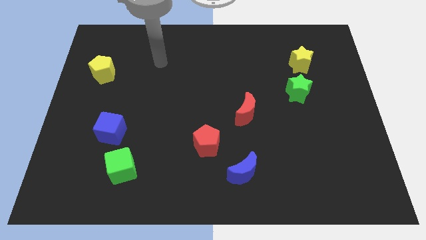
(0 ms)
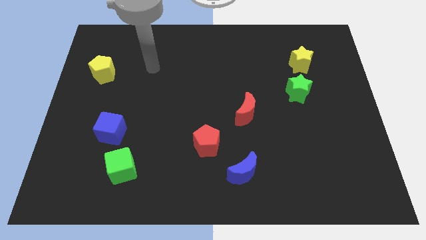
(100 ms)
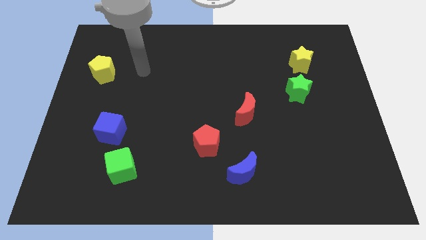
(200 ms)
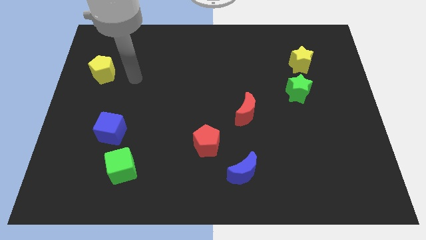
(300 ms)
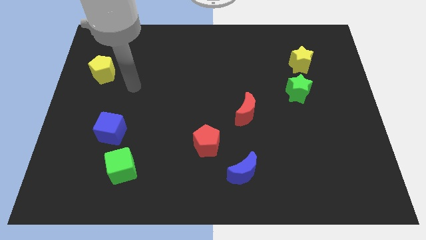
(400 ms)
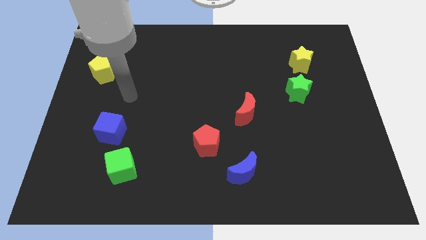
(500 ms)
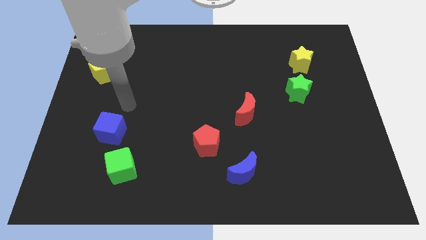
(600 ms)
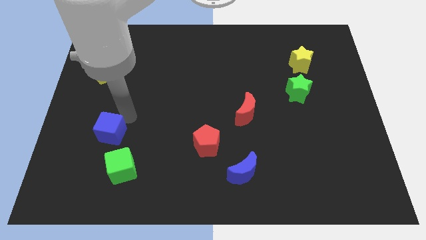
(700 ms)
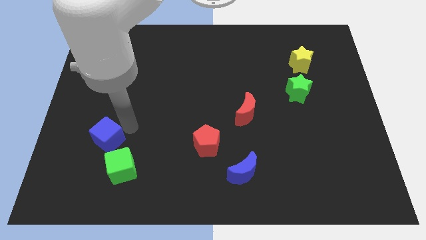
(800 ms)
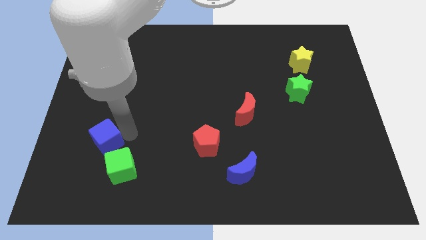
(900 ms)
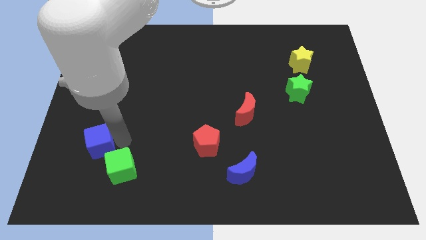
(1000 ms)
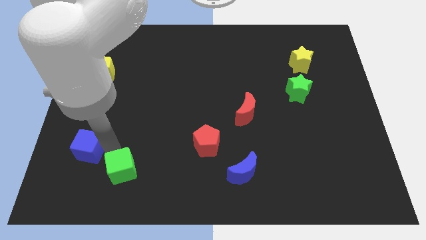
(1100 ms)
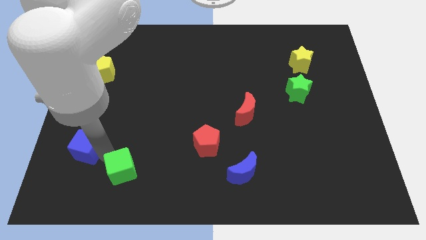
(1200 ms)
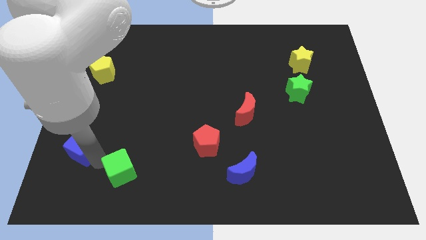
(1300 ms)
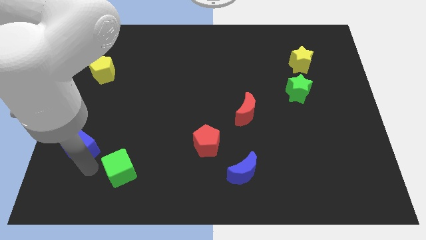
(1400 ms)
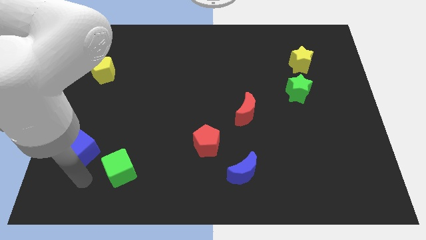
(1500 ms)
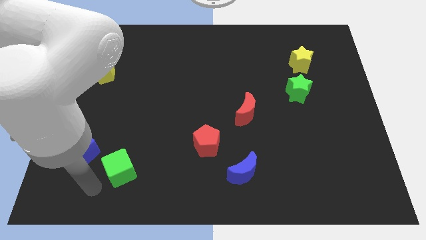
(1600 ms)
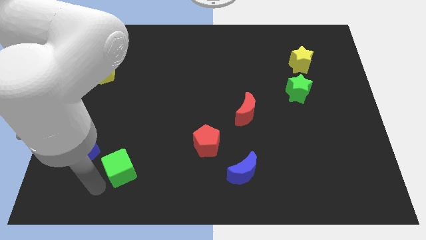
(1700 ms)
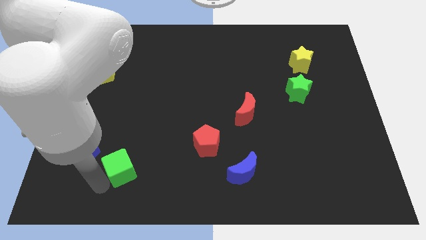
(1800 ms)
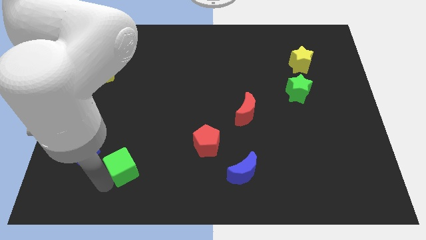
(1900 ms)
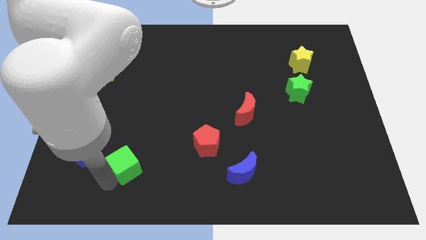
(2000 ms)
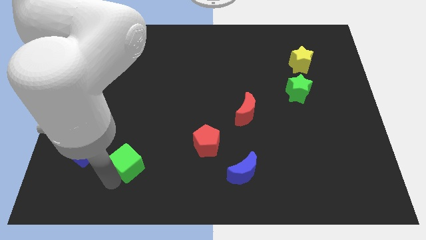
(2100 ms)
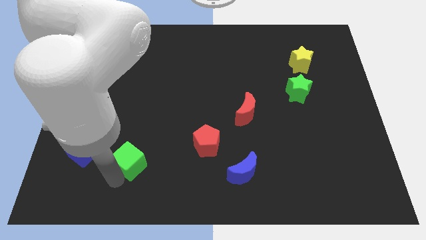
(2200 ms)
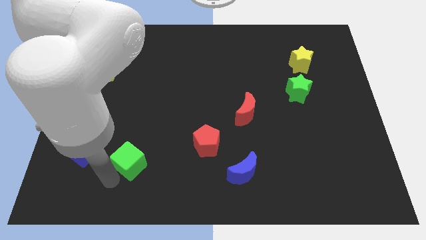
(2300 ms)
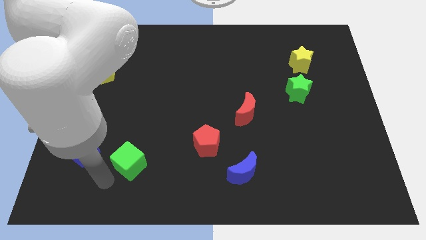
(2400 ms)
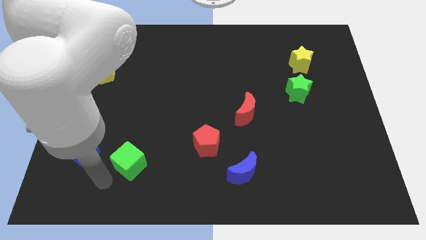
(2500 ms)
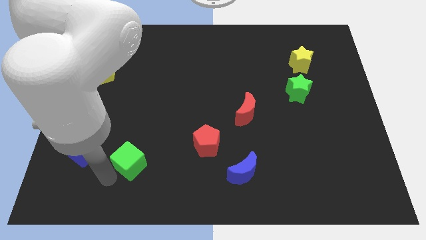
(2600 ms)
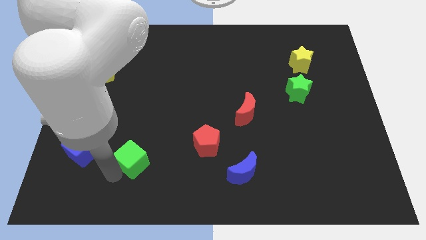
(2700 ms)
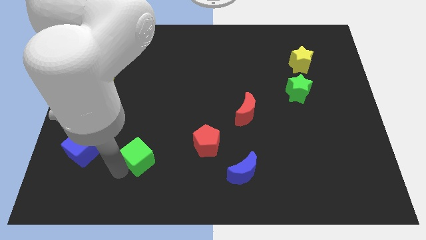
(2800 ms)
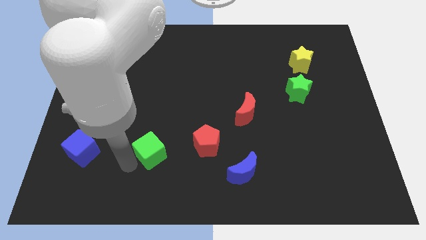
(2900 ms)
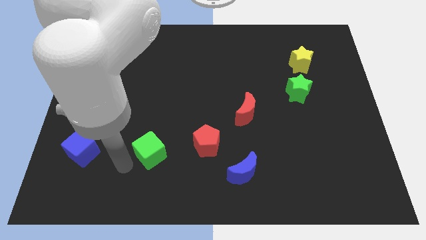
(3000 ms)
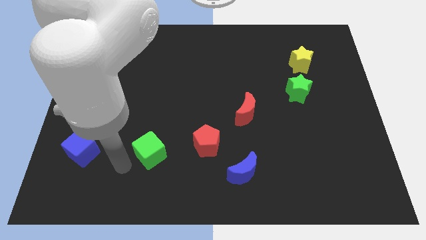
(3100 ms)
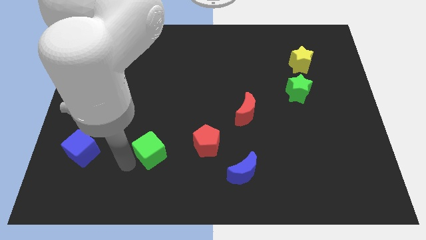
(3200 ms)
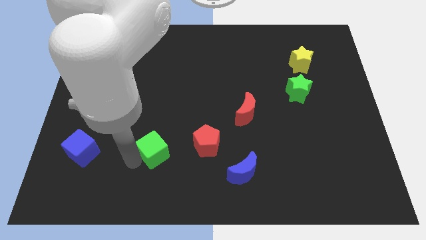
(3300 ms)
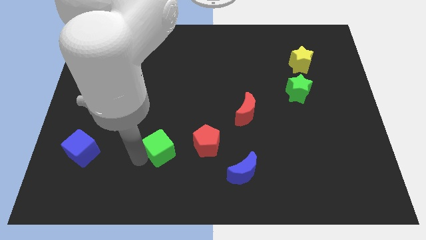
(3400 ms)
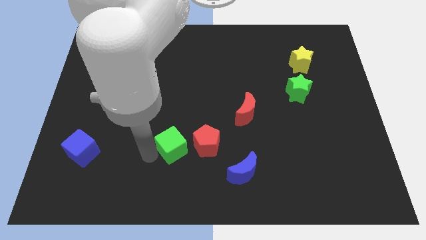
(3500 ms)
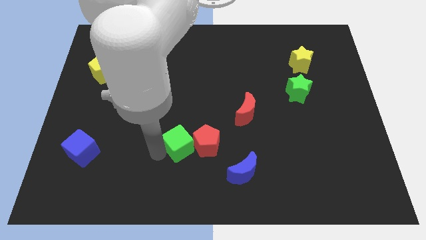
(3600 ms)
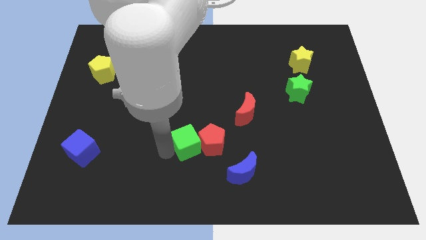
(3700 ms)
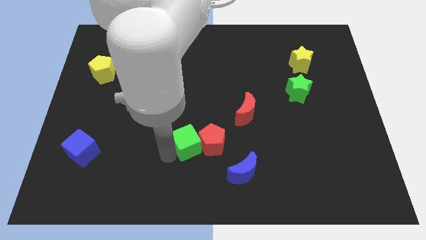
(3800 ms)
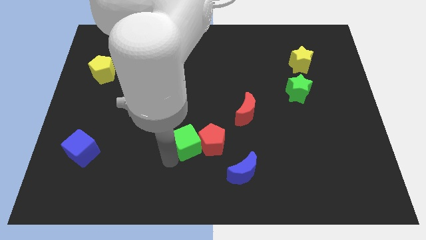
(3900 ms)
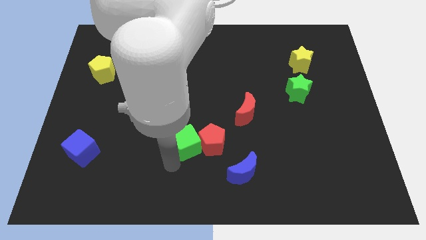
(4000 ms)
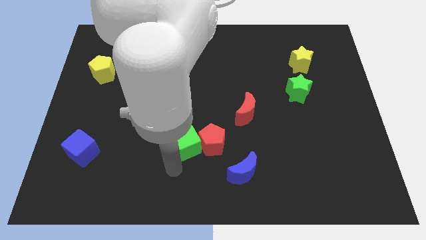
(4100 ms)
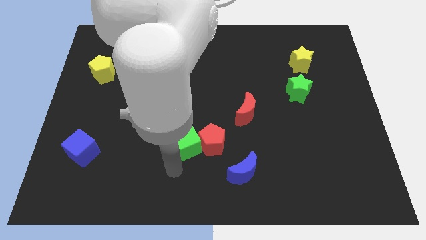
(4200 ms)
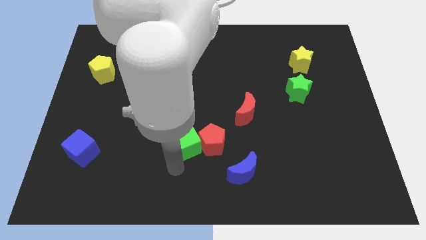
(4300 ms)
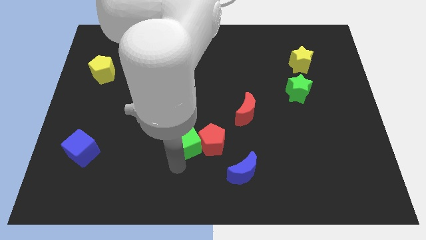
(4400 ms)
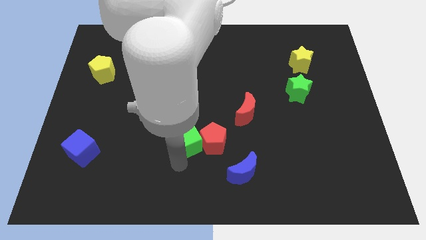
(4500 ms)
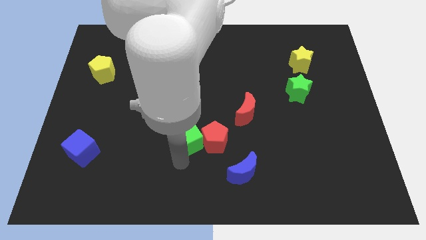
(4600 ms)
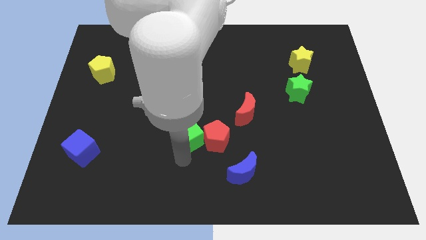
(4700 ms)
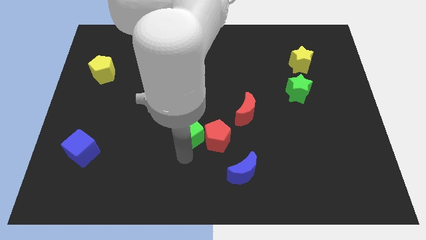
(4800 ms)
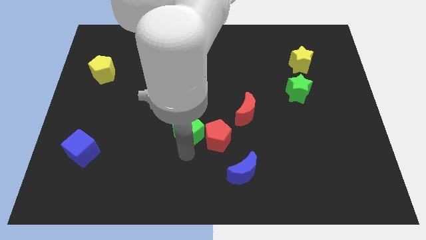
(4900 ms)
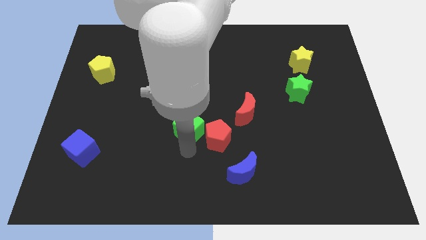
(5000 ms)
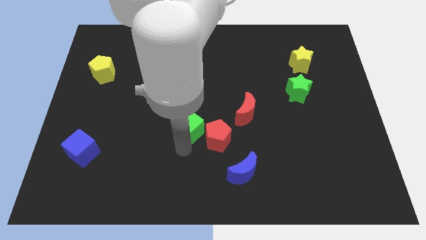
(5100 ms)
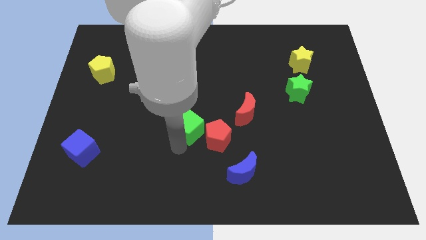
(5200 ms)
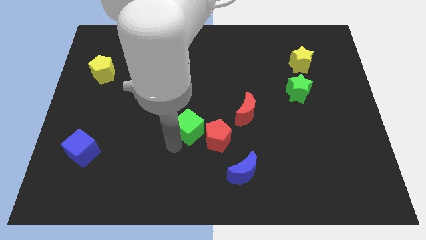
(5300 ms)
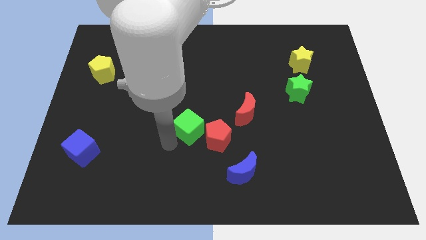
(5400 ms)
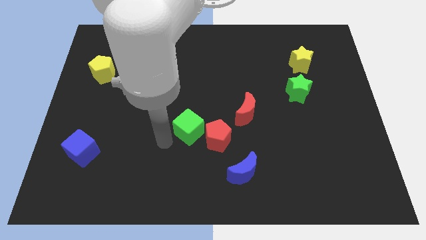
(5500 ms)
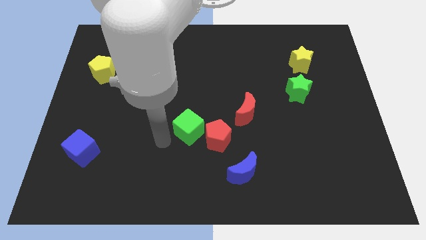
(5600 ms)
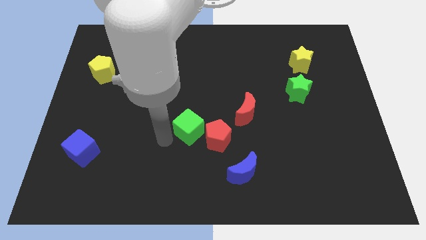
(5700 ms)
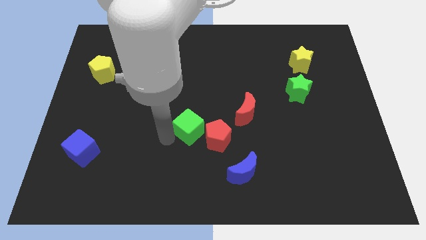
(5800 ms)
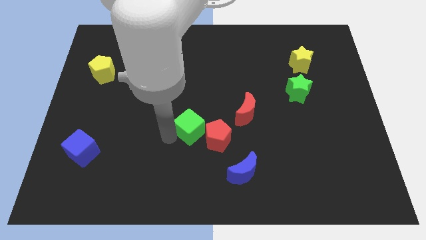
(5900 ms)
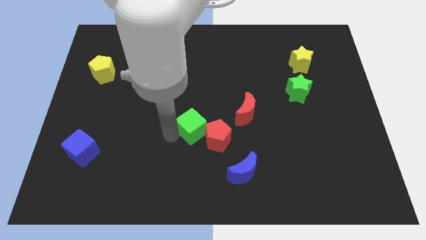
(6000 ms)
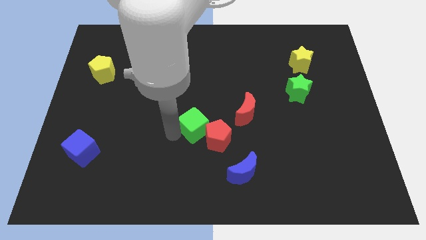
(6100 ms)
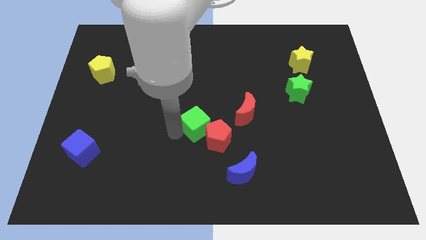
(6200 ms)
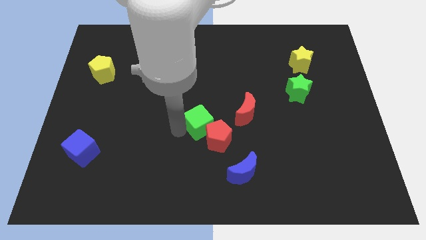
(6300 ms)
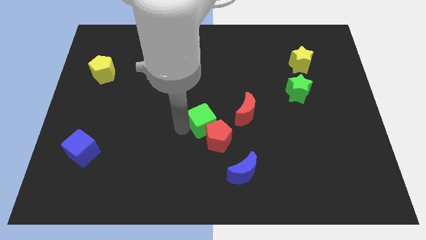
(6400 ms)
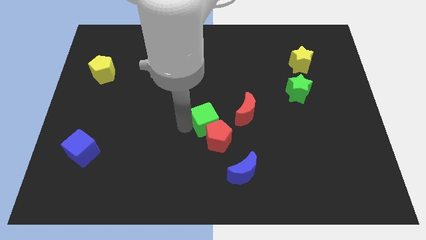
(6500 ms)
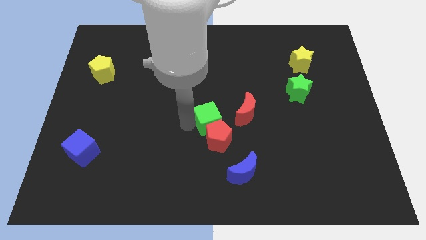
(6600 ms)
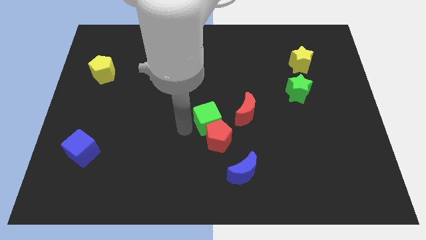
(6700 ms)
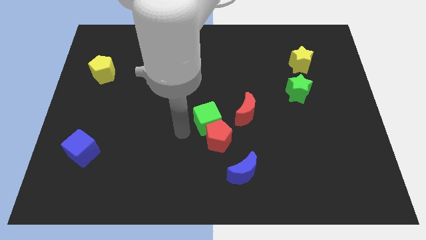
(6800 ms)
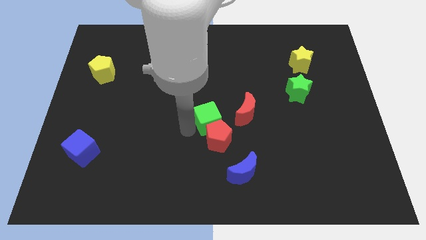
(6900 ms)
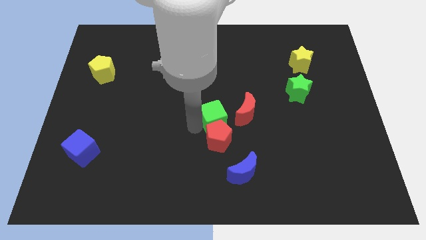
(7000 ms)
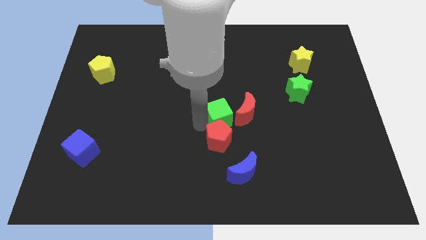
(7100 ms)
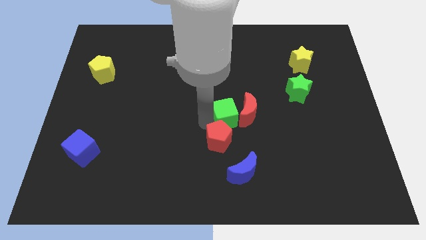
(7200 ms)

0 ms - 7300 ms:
push the green cube next to the red moon
